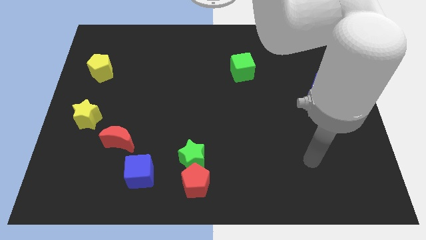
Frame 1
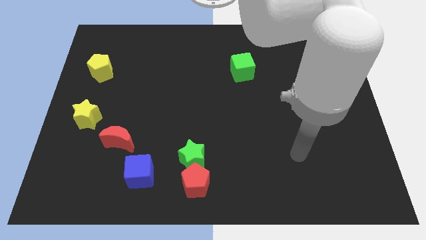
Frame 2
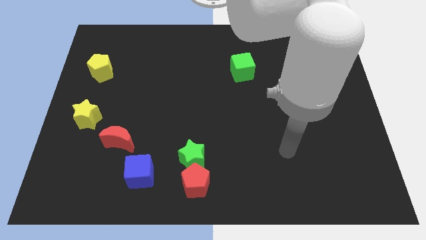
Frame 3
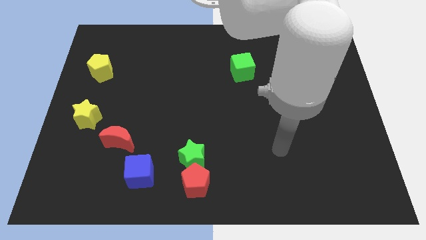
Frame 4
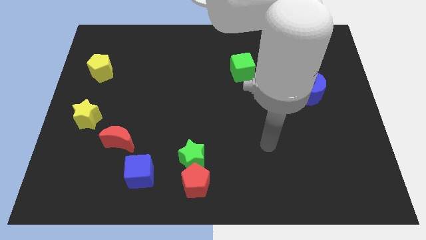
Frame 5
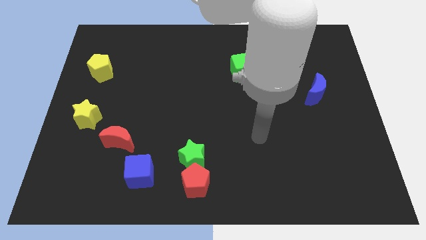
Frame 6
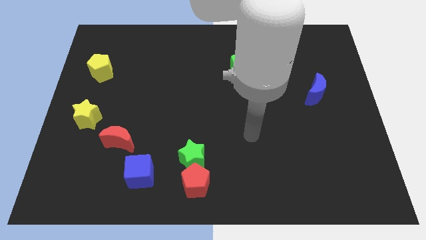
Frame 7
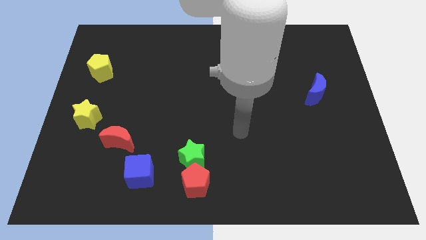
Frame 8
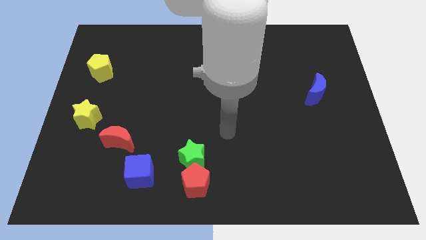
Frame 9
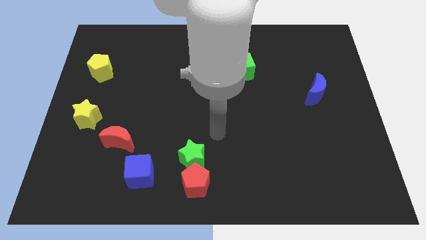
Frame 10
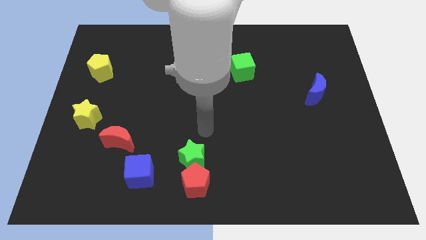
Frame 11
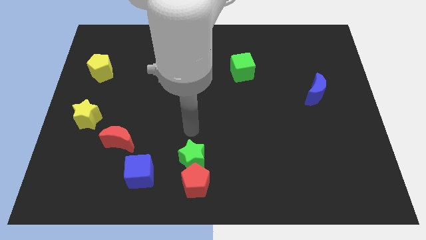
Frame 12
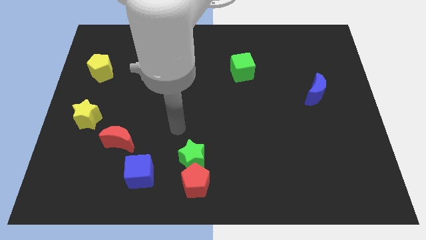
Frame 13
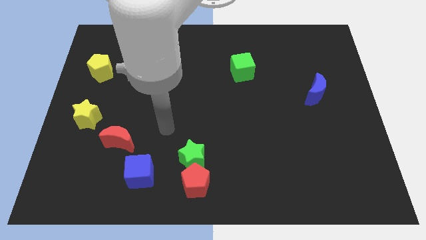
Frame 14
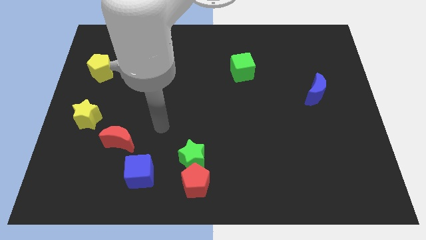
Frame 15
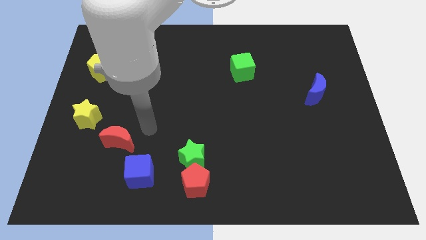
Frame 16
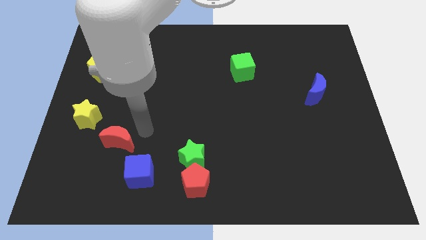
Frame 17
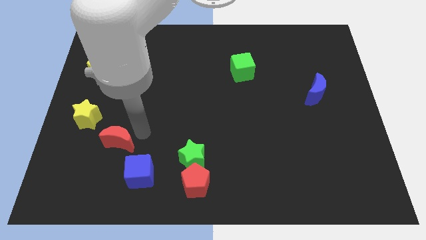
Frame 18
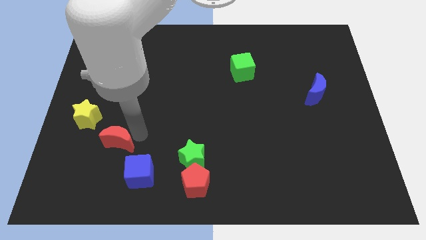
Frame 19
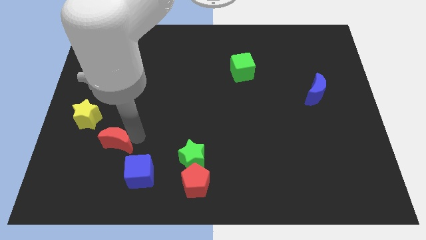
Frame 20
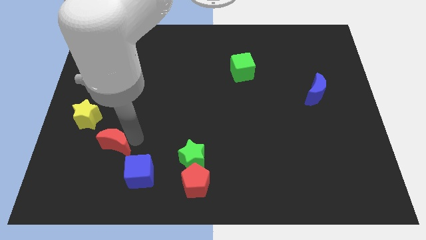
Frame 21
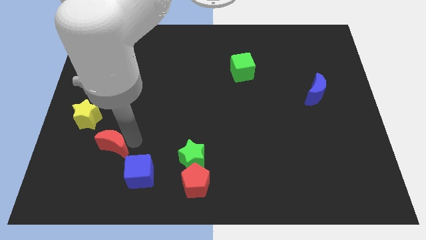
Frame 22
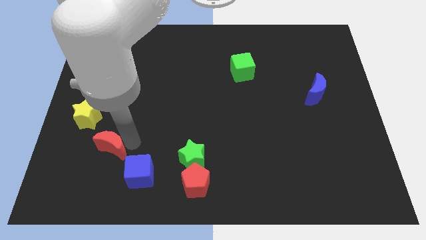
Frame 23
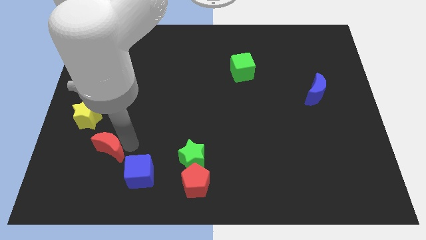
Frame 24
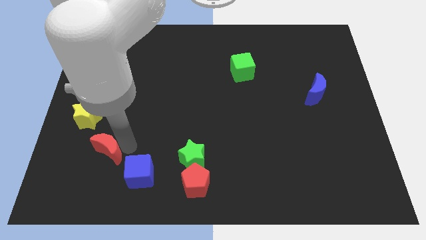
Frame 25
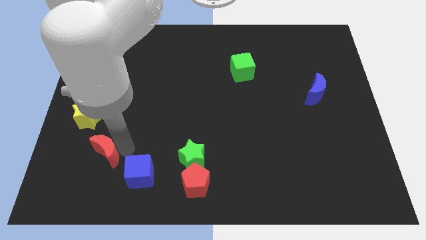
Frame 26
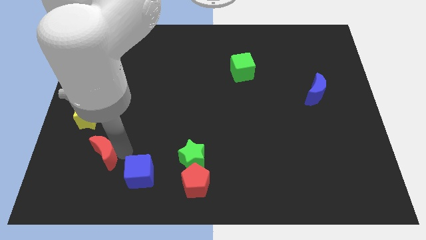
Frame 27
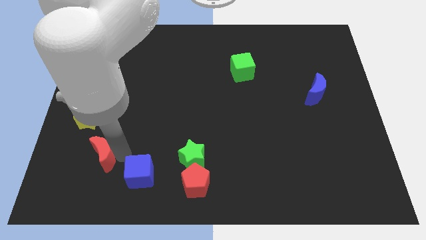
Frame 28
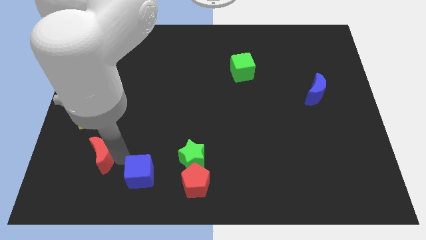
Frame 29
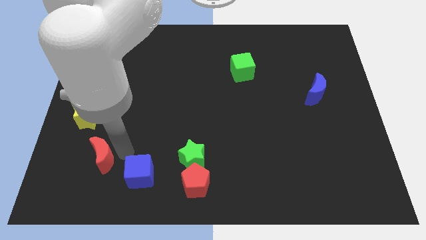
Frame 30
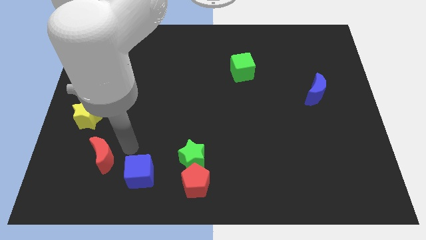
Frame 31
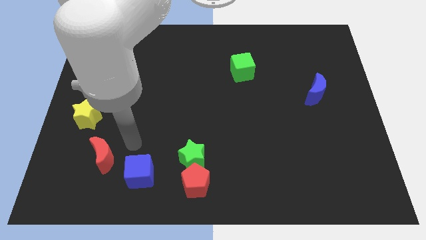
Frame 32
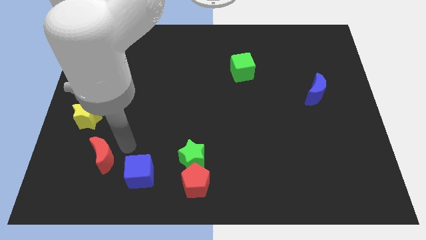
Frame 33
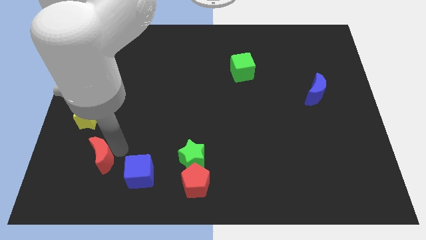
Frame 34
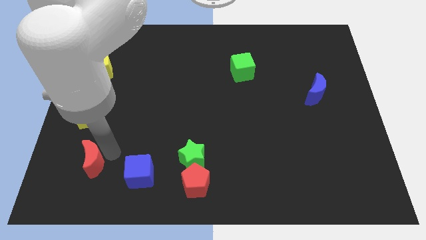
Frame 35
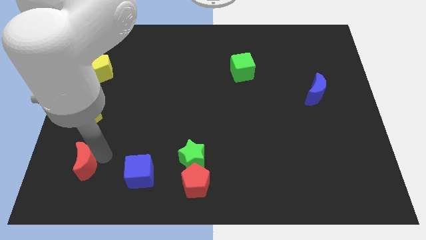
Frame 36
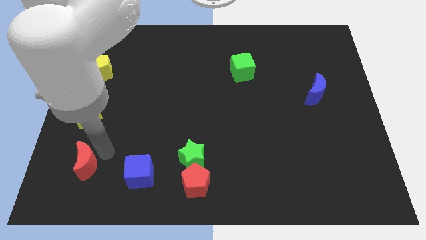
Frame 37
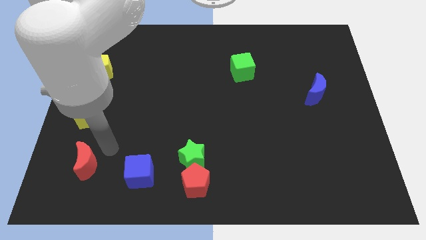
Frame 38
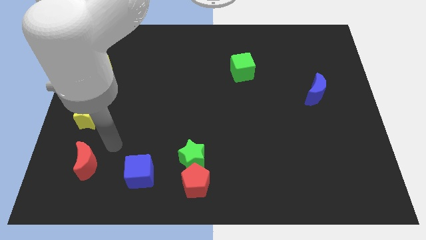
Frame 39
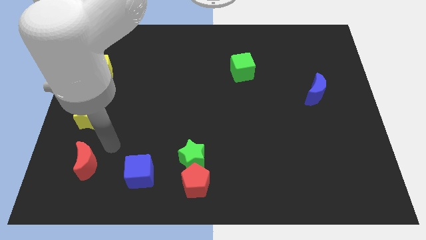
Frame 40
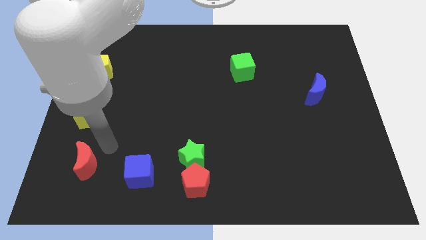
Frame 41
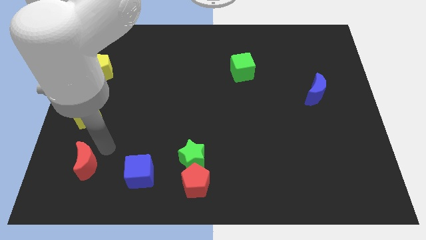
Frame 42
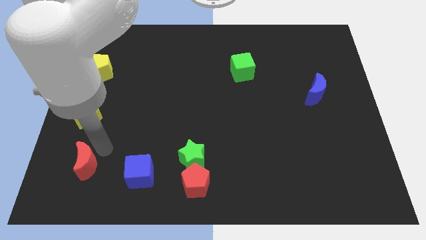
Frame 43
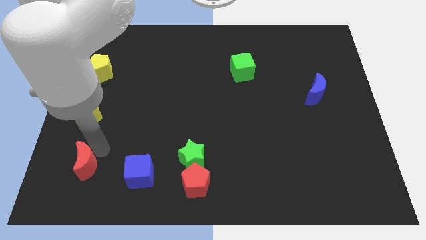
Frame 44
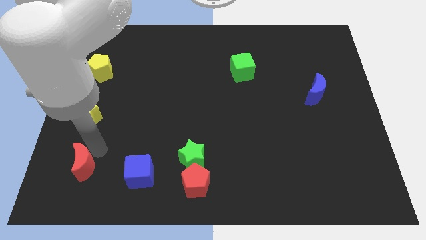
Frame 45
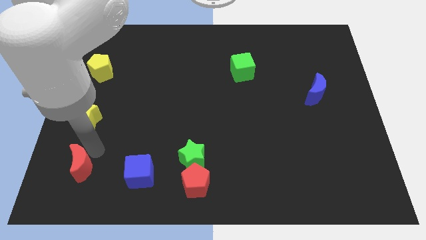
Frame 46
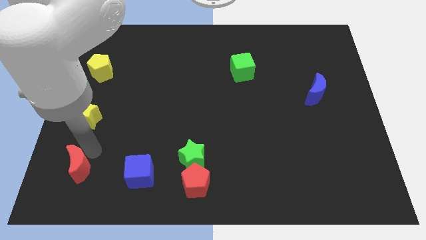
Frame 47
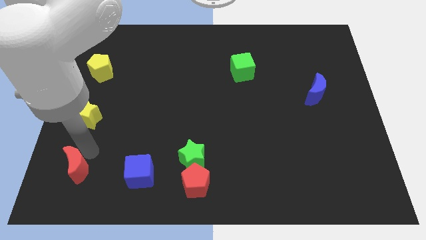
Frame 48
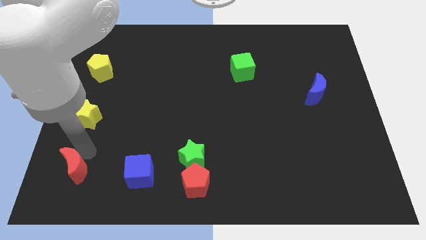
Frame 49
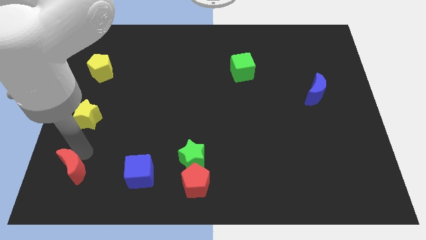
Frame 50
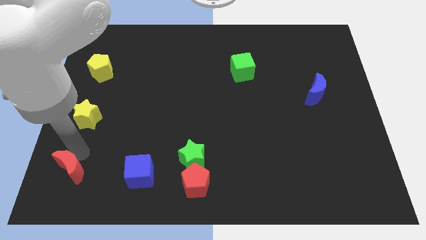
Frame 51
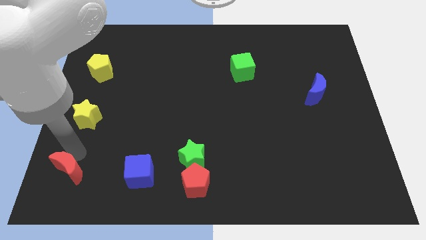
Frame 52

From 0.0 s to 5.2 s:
move the red moon to the bottom left corner

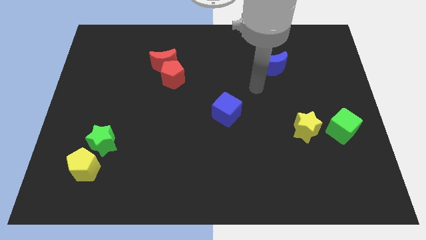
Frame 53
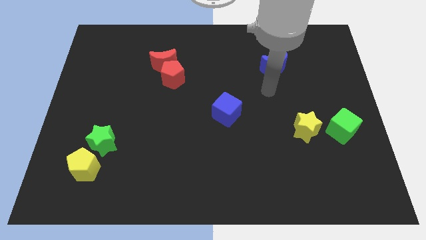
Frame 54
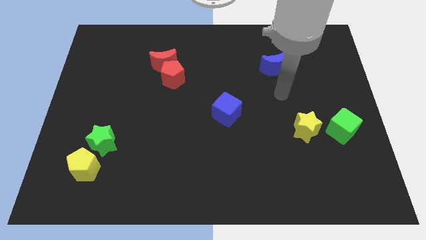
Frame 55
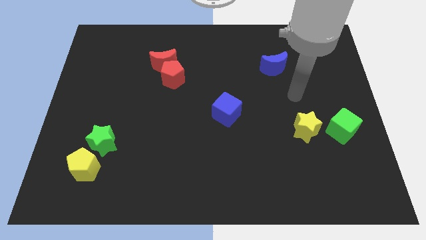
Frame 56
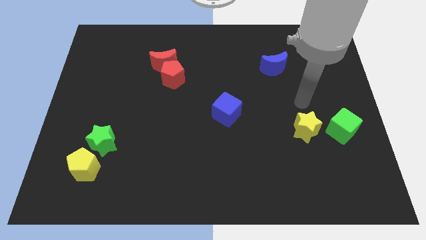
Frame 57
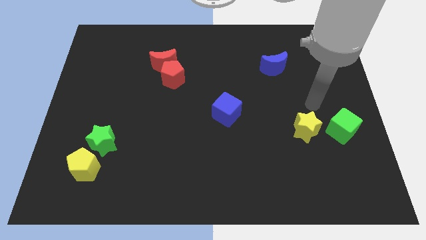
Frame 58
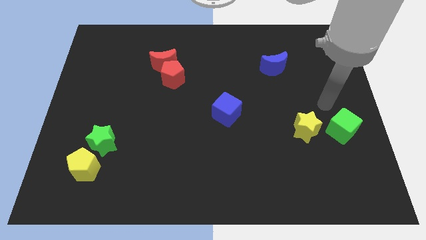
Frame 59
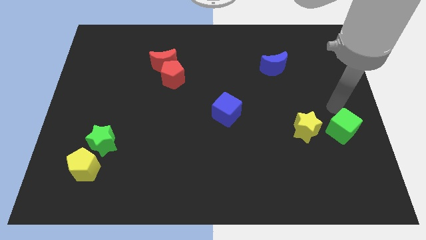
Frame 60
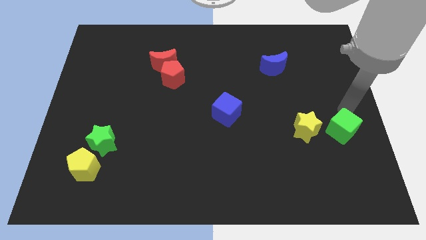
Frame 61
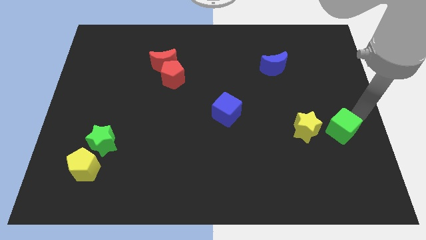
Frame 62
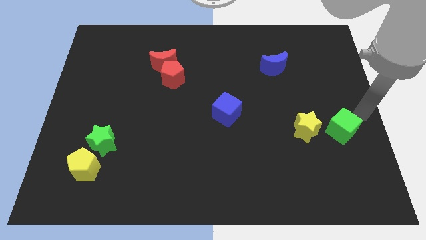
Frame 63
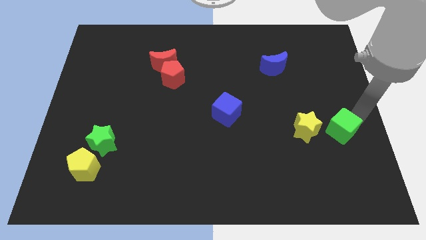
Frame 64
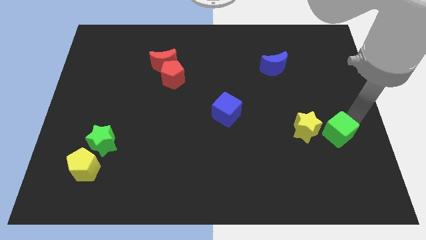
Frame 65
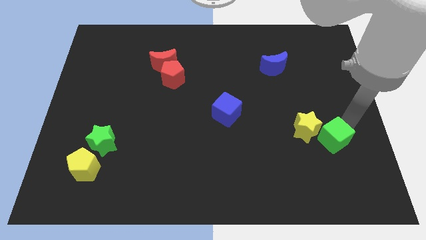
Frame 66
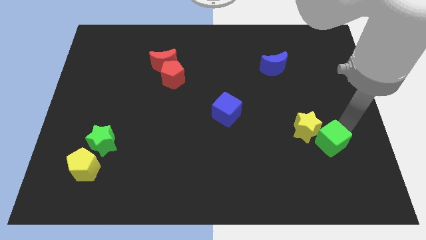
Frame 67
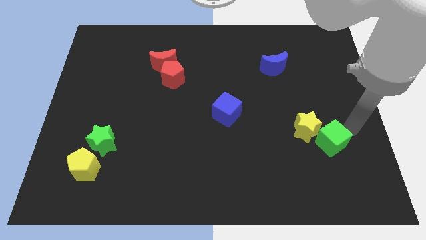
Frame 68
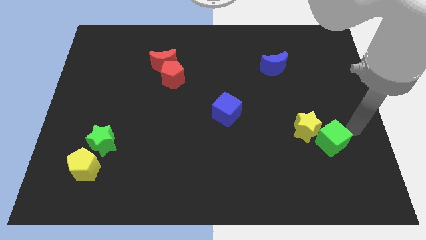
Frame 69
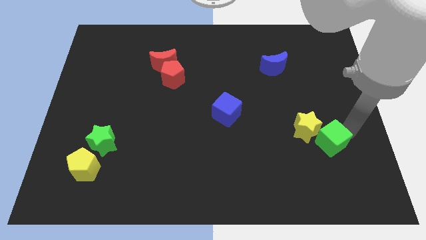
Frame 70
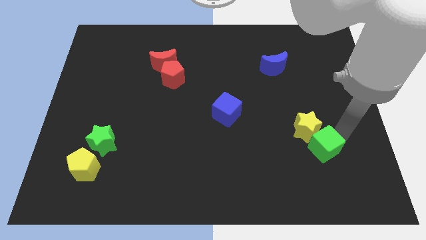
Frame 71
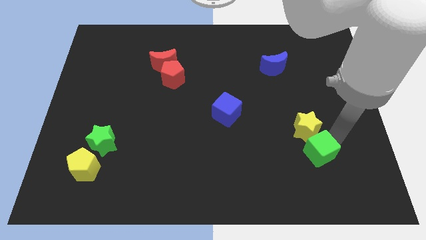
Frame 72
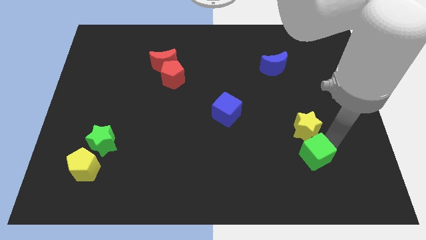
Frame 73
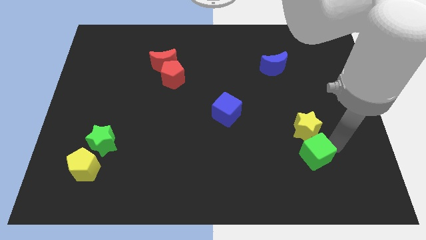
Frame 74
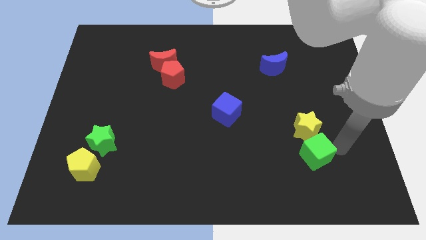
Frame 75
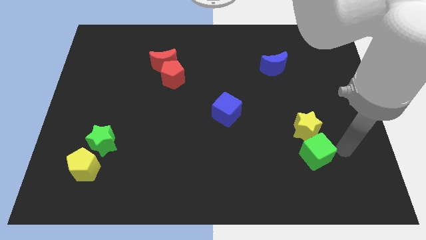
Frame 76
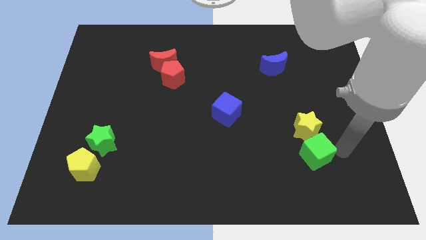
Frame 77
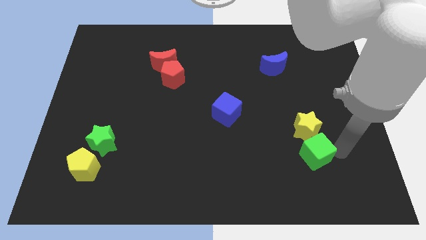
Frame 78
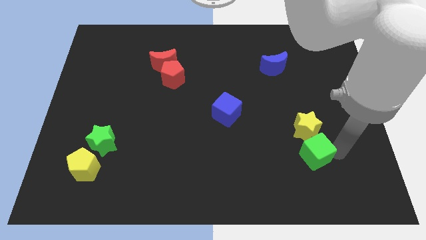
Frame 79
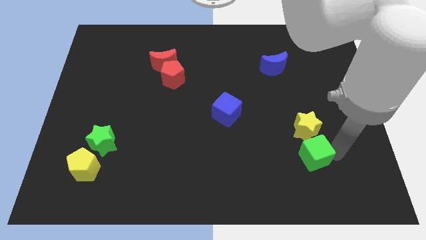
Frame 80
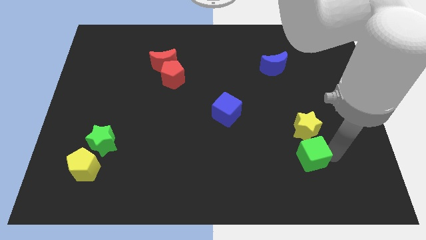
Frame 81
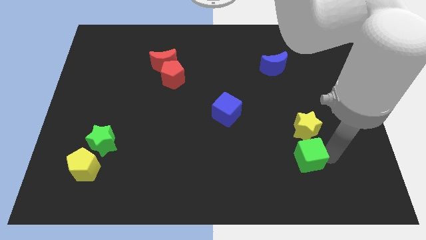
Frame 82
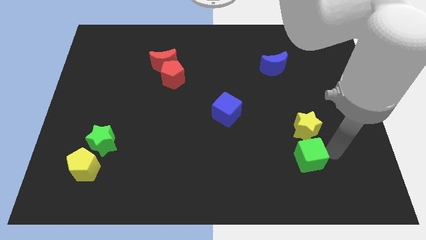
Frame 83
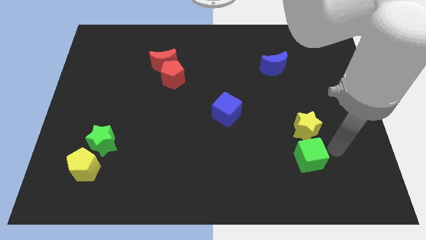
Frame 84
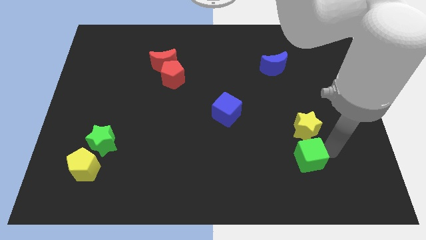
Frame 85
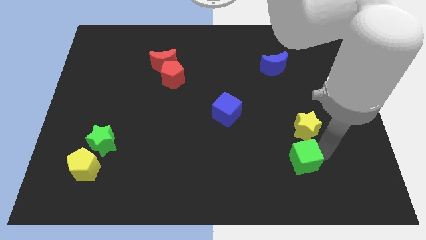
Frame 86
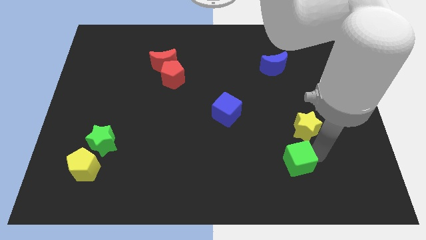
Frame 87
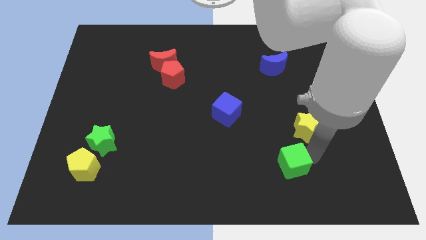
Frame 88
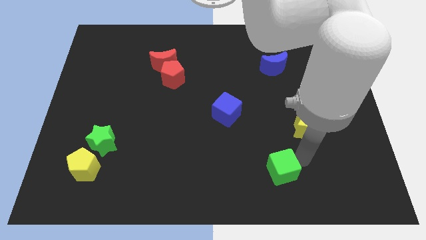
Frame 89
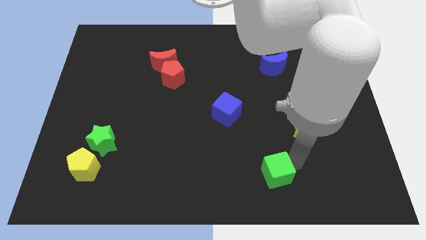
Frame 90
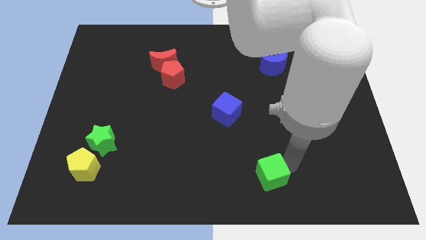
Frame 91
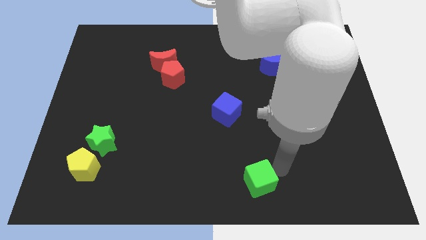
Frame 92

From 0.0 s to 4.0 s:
slide the green cube to the bottom side
